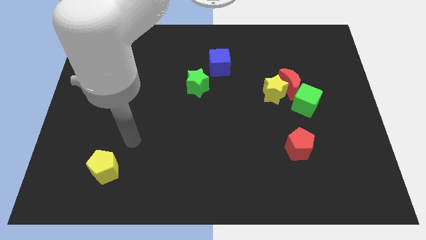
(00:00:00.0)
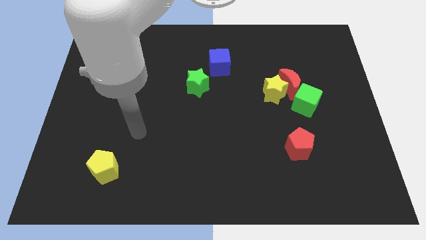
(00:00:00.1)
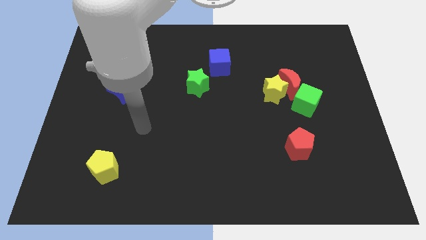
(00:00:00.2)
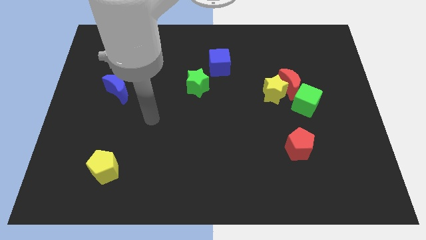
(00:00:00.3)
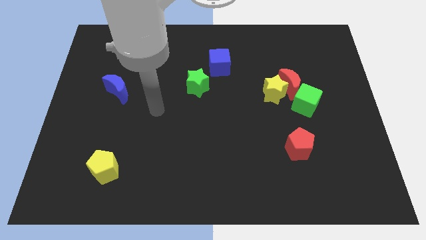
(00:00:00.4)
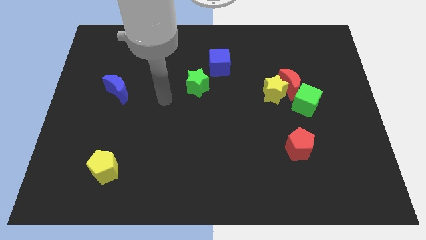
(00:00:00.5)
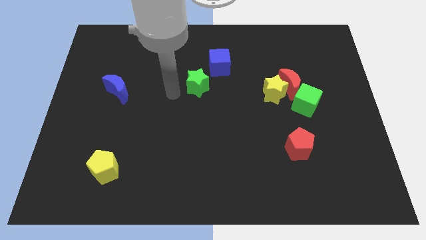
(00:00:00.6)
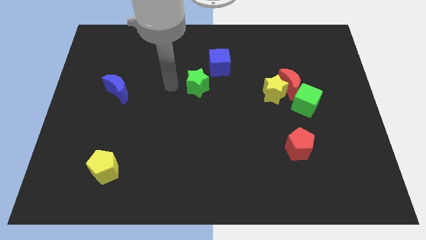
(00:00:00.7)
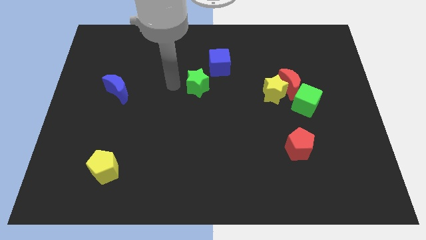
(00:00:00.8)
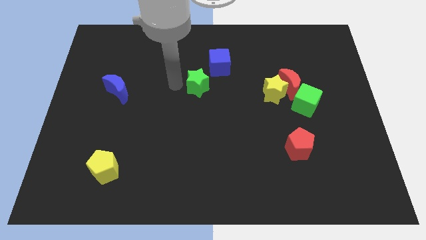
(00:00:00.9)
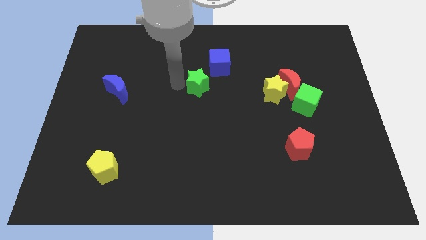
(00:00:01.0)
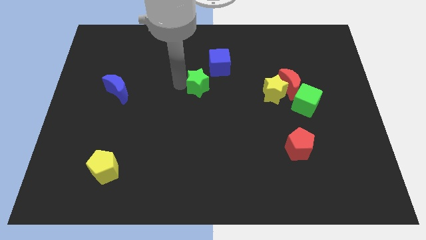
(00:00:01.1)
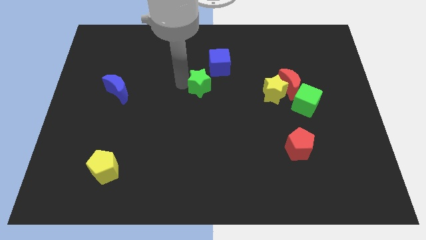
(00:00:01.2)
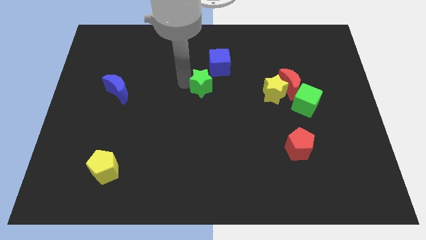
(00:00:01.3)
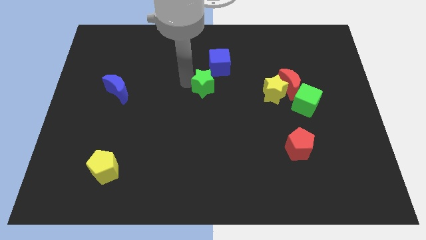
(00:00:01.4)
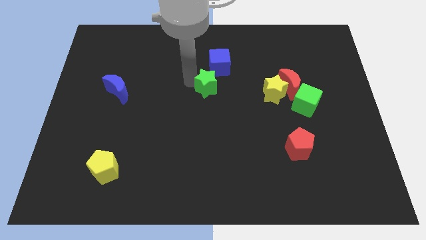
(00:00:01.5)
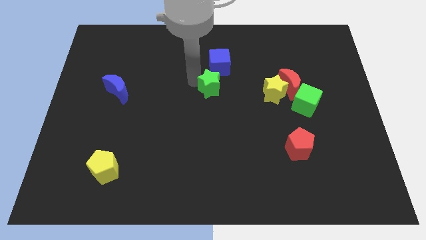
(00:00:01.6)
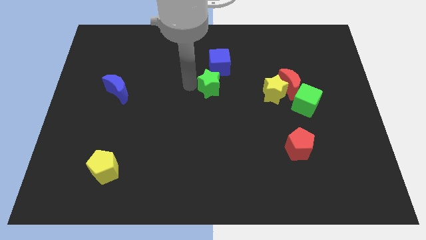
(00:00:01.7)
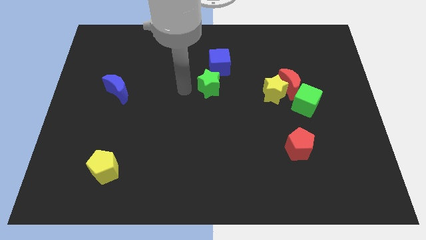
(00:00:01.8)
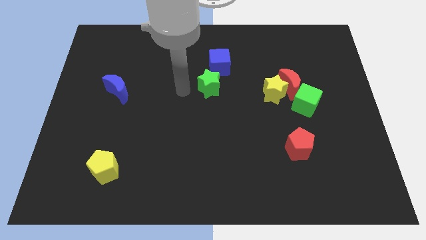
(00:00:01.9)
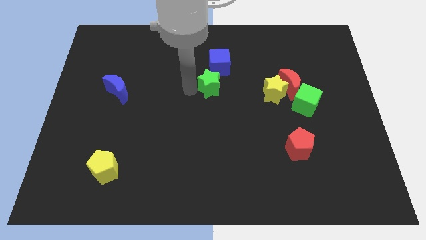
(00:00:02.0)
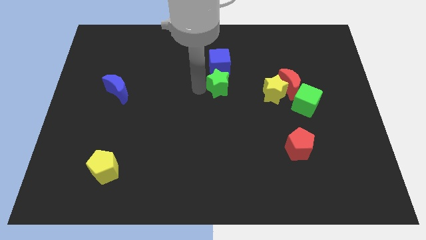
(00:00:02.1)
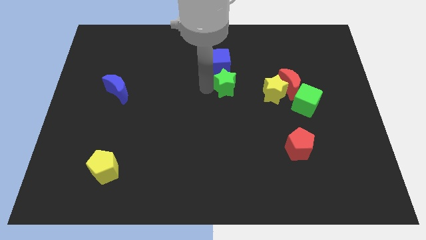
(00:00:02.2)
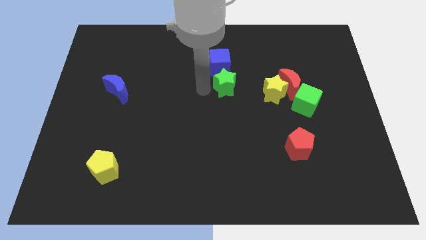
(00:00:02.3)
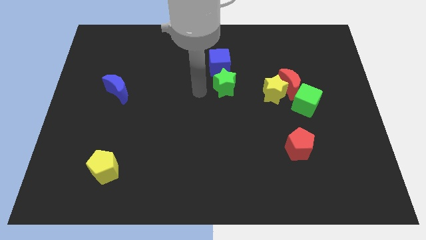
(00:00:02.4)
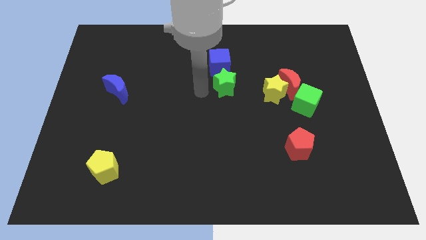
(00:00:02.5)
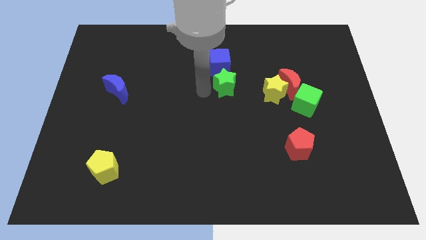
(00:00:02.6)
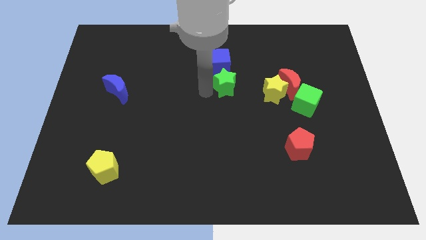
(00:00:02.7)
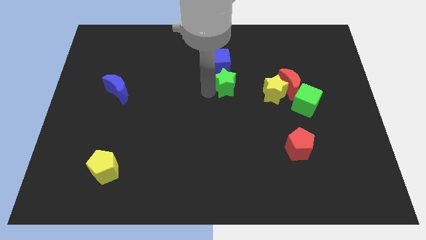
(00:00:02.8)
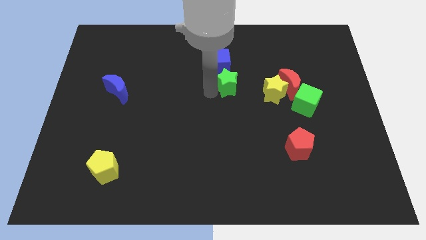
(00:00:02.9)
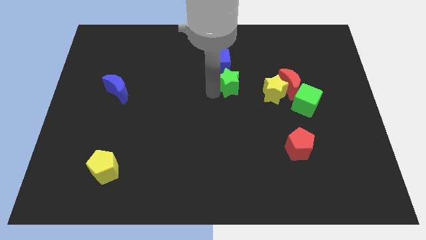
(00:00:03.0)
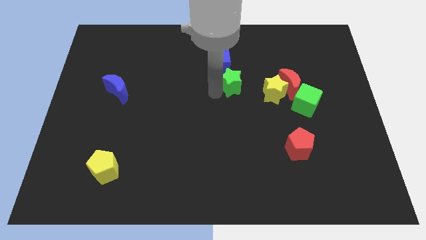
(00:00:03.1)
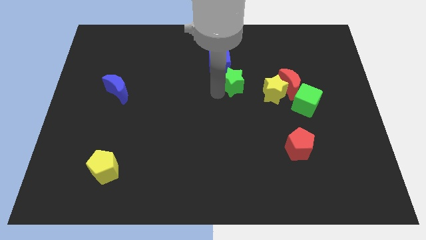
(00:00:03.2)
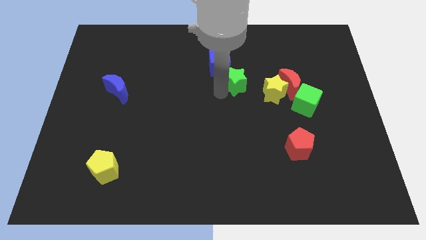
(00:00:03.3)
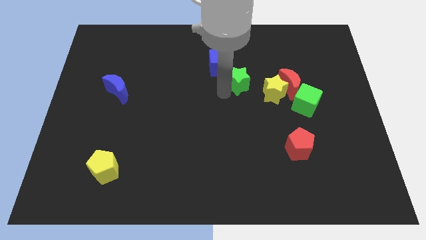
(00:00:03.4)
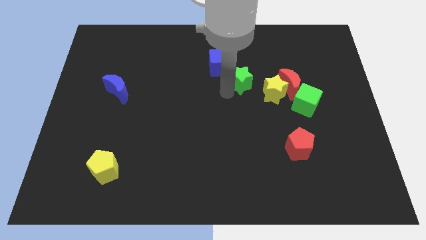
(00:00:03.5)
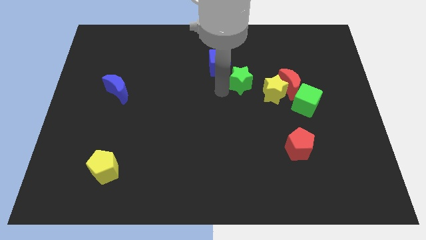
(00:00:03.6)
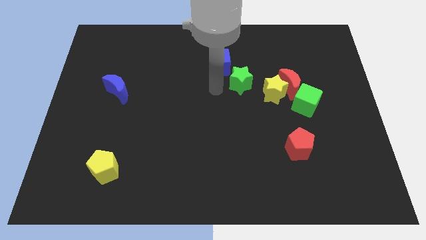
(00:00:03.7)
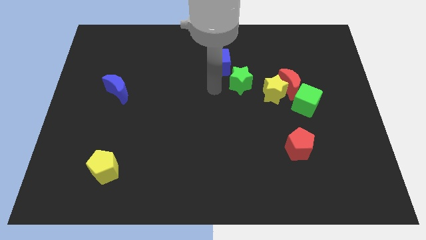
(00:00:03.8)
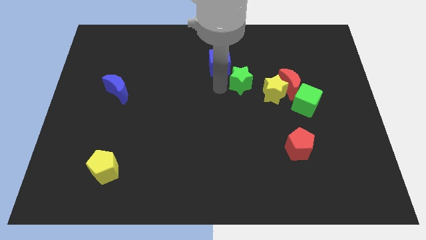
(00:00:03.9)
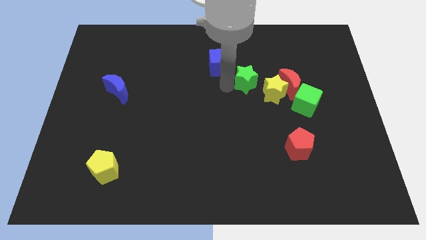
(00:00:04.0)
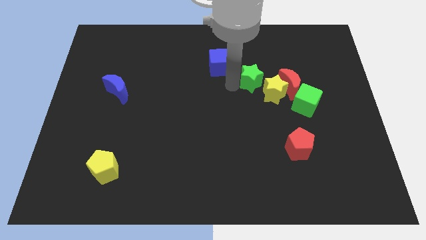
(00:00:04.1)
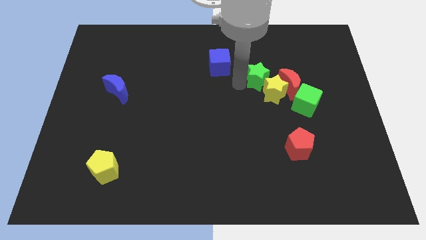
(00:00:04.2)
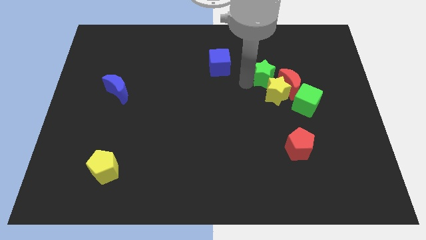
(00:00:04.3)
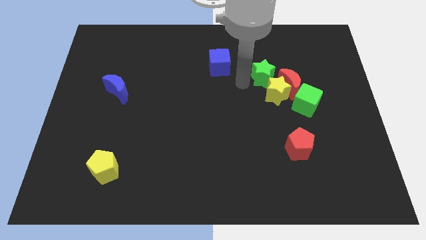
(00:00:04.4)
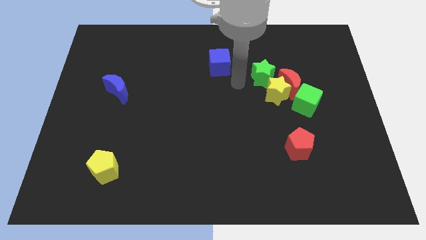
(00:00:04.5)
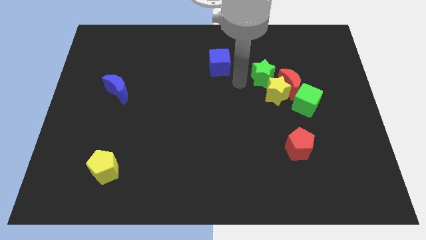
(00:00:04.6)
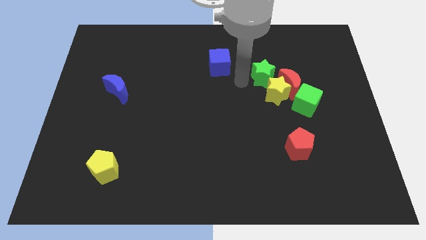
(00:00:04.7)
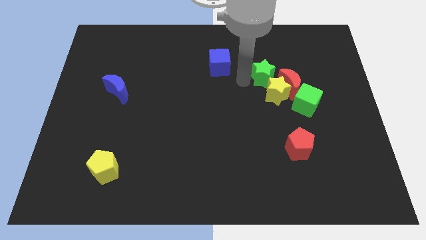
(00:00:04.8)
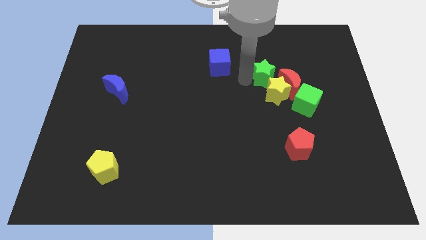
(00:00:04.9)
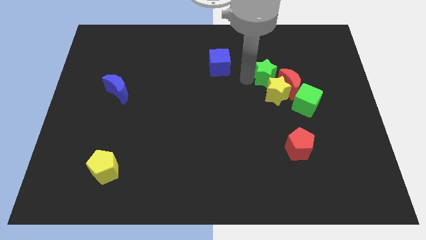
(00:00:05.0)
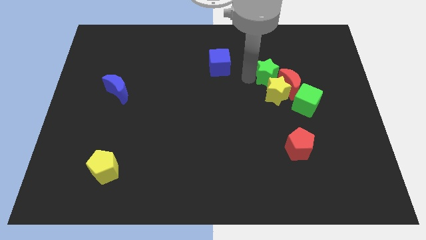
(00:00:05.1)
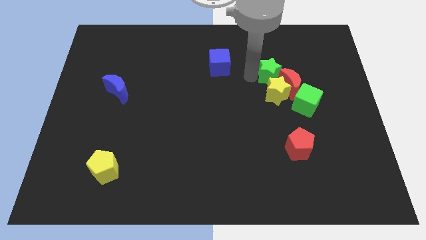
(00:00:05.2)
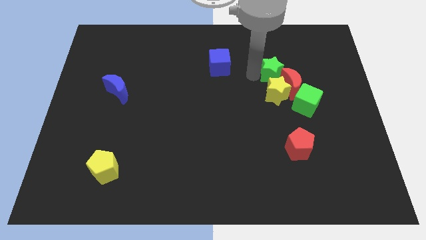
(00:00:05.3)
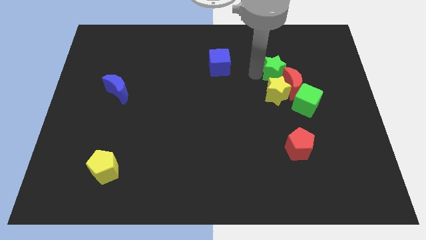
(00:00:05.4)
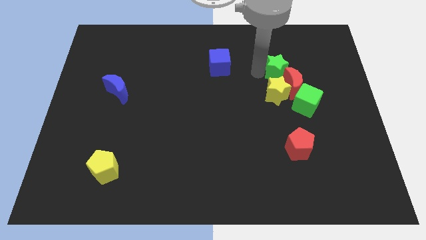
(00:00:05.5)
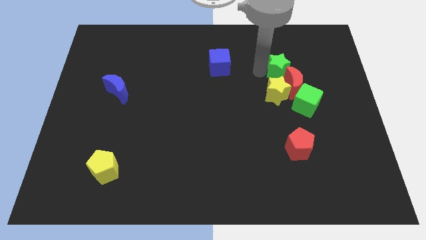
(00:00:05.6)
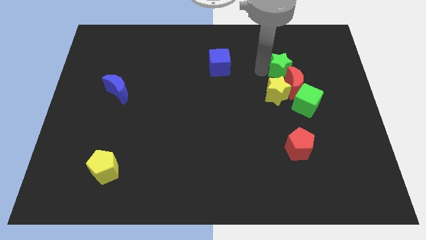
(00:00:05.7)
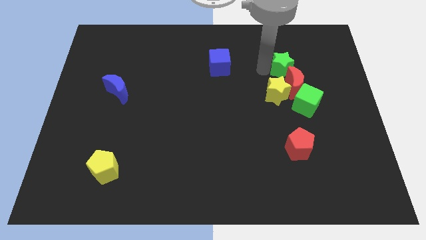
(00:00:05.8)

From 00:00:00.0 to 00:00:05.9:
move the green star right

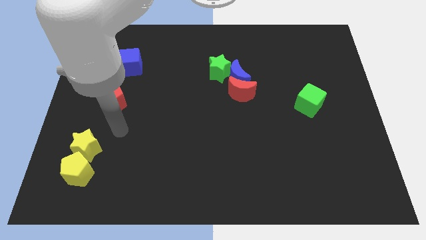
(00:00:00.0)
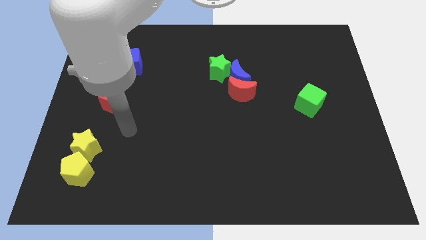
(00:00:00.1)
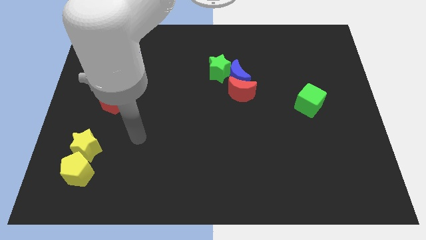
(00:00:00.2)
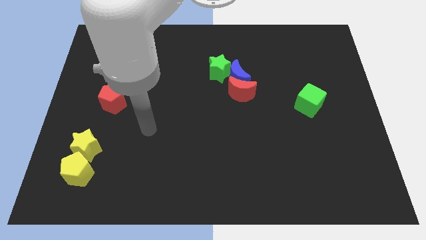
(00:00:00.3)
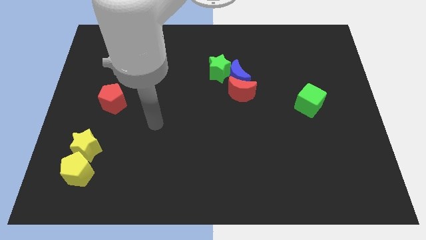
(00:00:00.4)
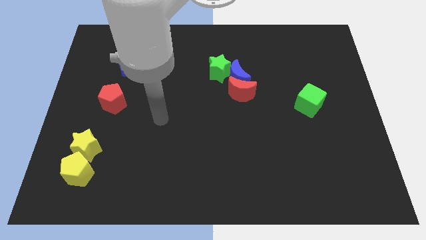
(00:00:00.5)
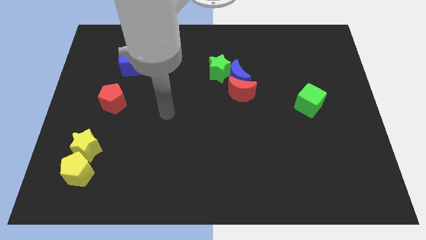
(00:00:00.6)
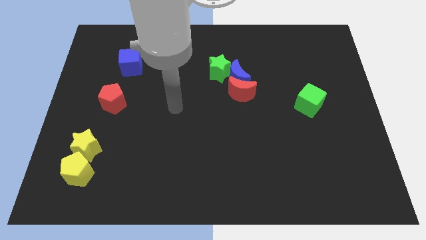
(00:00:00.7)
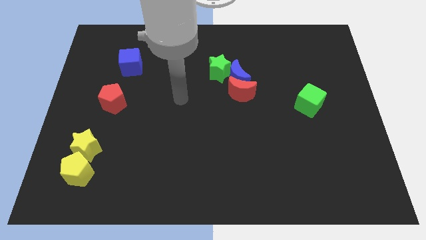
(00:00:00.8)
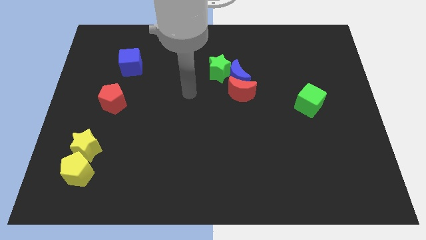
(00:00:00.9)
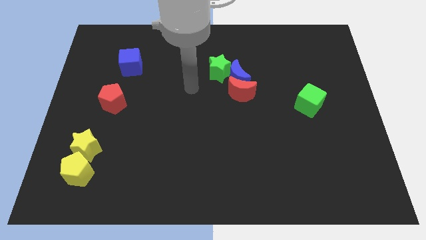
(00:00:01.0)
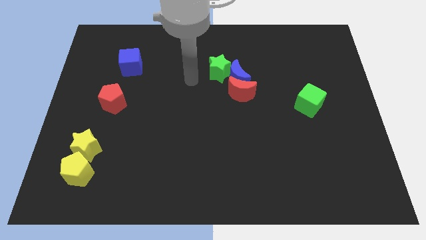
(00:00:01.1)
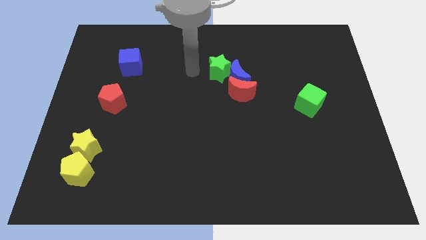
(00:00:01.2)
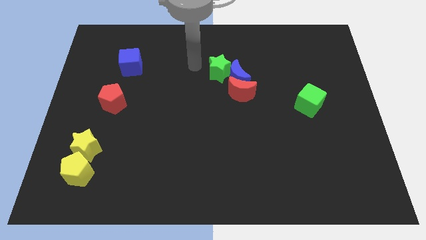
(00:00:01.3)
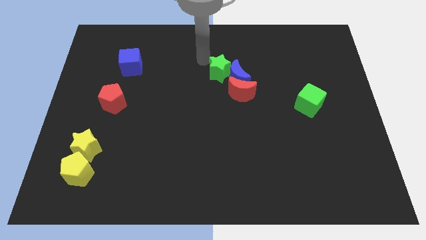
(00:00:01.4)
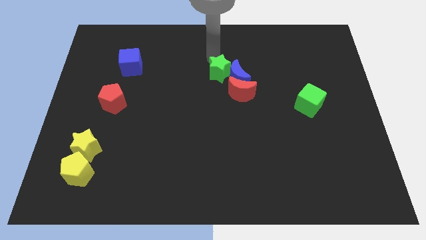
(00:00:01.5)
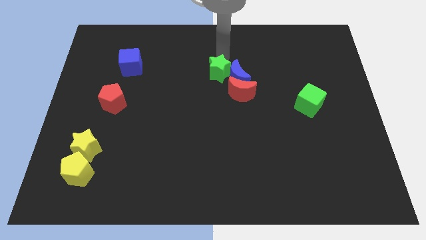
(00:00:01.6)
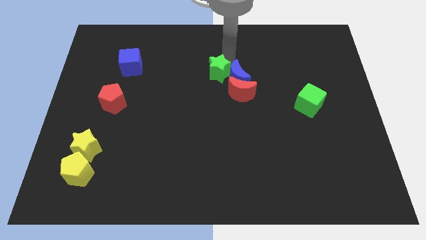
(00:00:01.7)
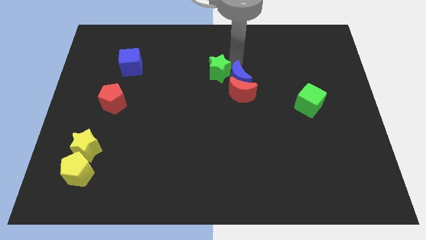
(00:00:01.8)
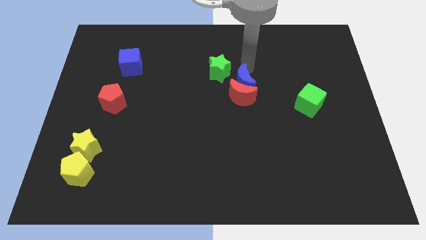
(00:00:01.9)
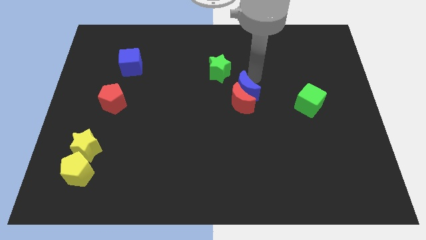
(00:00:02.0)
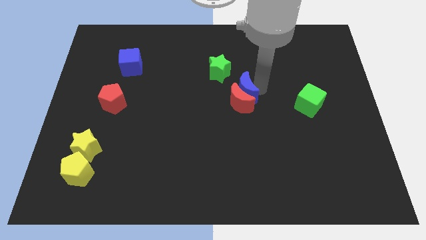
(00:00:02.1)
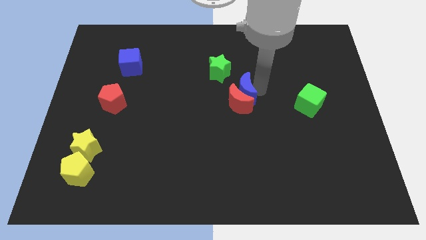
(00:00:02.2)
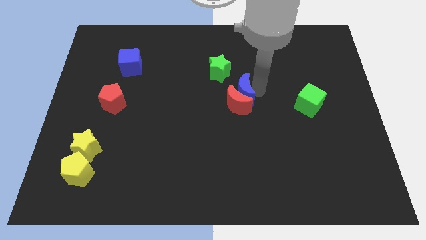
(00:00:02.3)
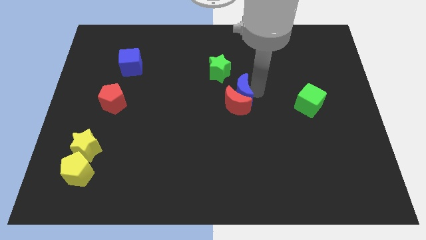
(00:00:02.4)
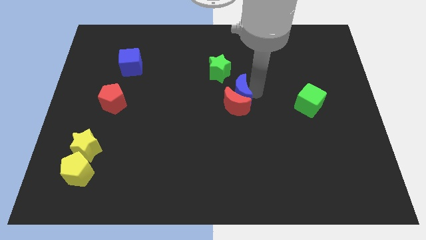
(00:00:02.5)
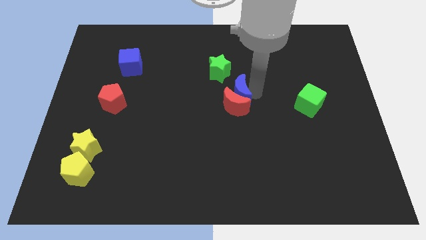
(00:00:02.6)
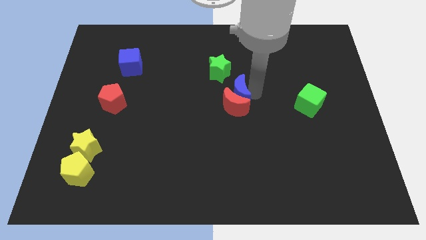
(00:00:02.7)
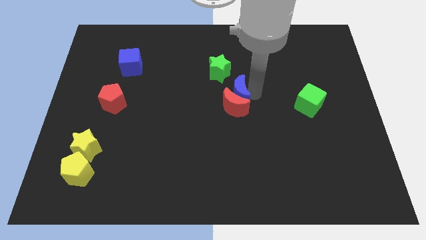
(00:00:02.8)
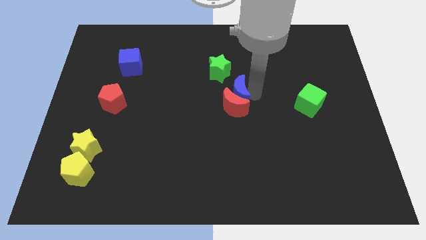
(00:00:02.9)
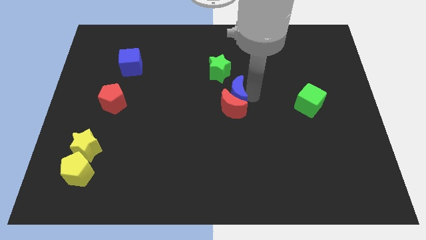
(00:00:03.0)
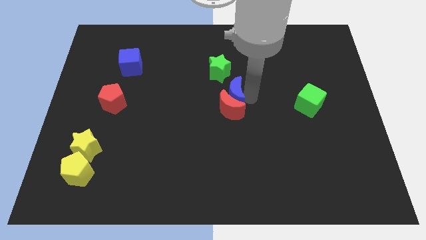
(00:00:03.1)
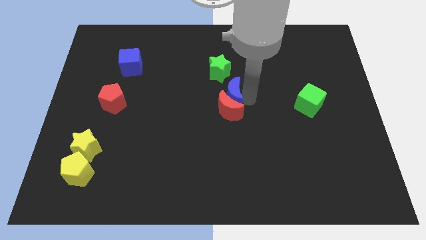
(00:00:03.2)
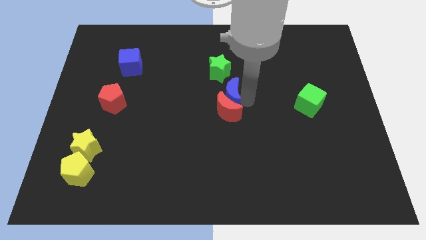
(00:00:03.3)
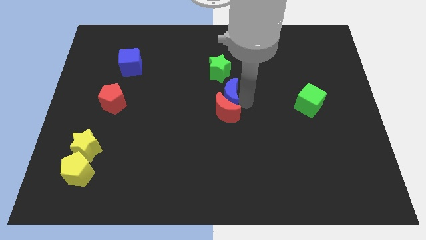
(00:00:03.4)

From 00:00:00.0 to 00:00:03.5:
slide the red moon a bit diagonally down and left
